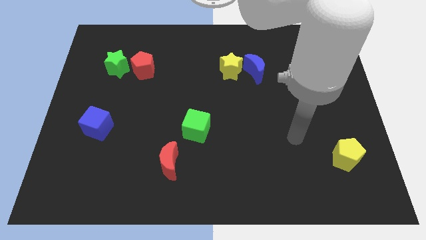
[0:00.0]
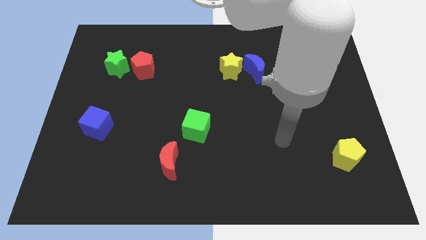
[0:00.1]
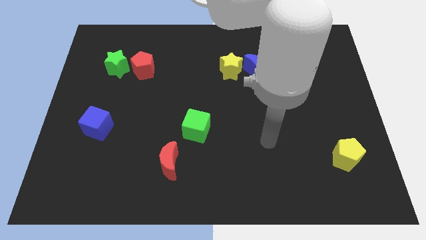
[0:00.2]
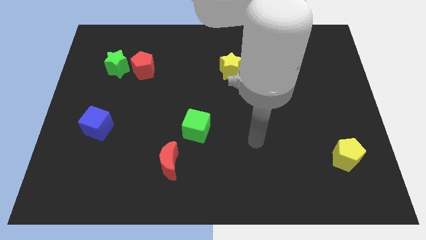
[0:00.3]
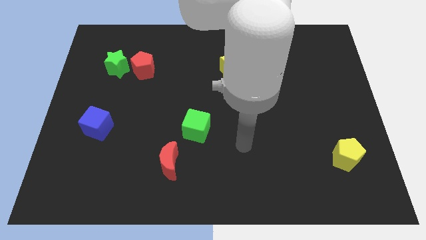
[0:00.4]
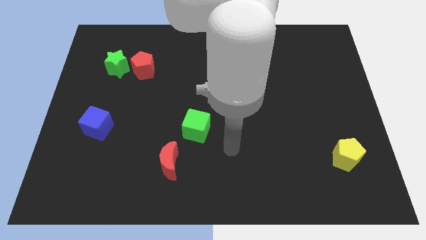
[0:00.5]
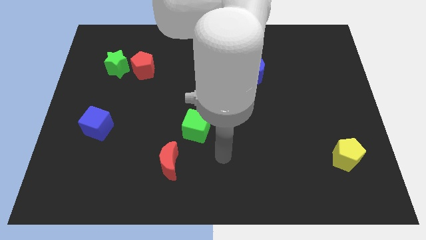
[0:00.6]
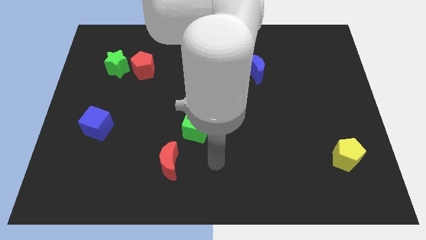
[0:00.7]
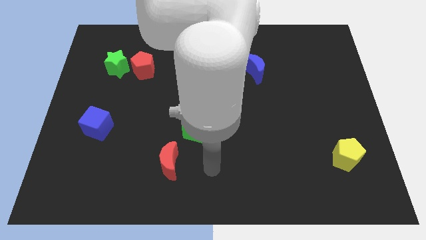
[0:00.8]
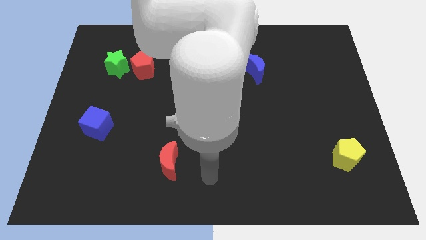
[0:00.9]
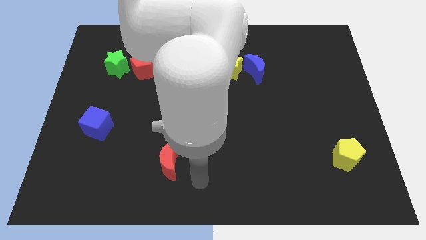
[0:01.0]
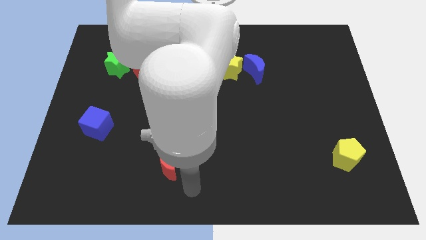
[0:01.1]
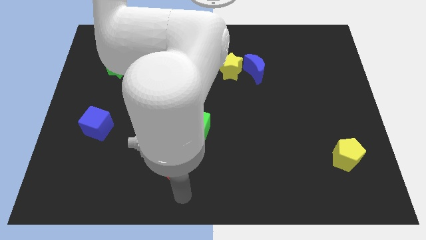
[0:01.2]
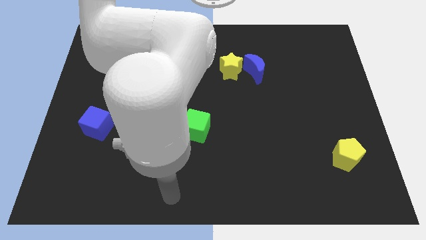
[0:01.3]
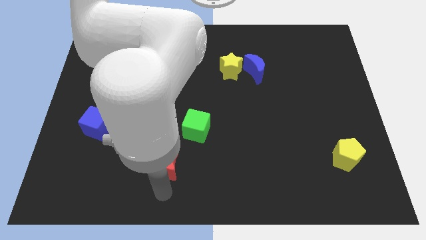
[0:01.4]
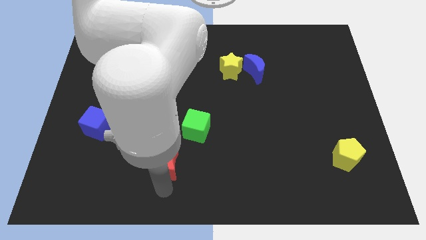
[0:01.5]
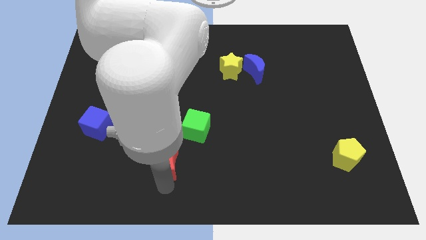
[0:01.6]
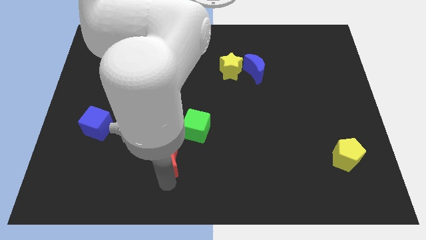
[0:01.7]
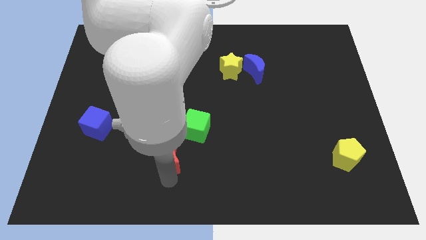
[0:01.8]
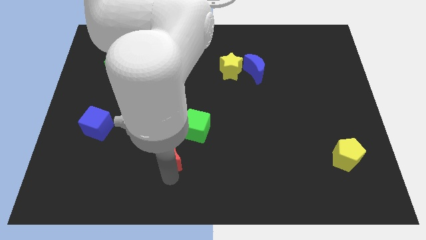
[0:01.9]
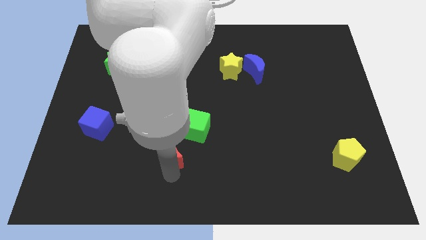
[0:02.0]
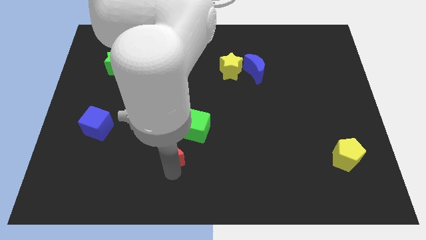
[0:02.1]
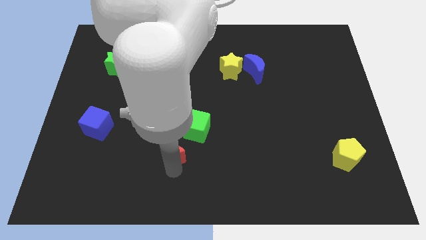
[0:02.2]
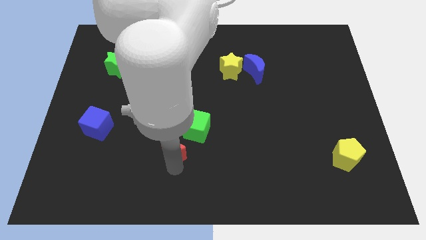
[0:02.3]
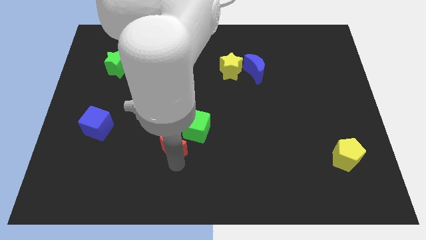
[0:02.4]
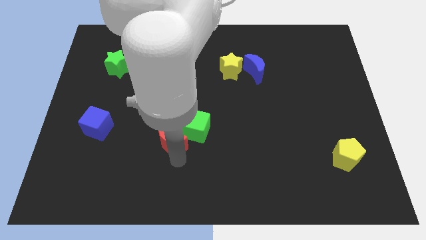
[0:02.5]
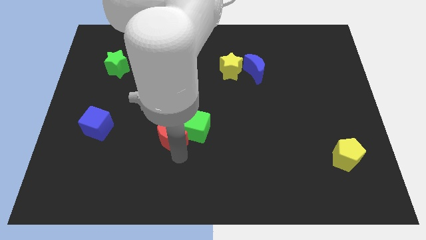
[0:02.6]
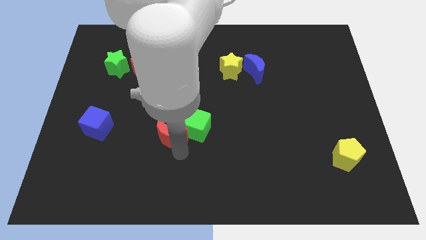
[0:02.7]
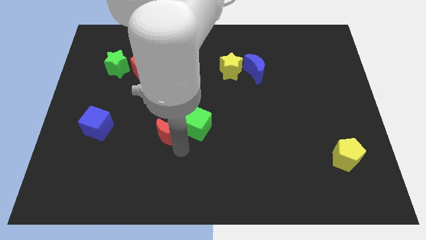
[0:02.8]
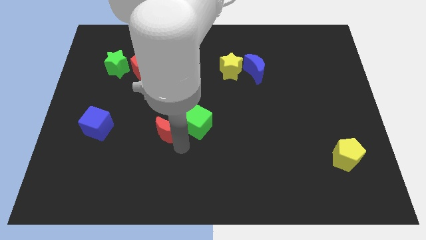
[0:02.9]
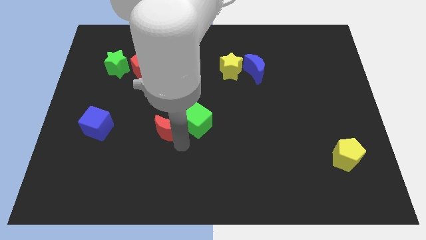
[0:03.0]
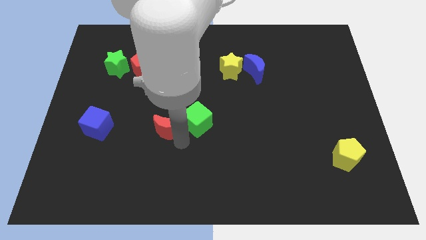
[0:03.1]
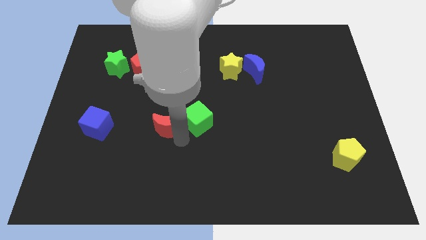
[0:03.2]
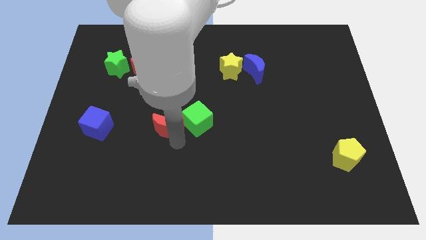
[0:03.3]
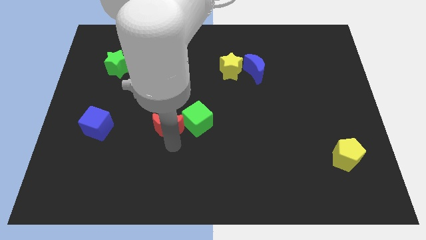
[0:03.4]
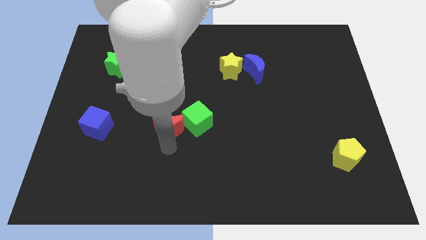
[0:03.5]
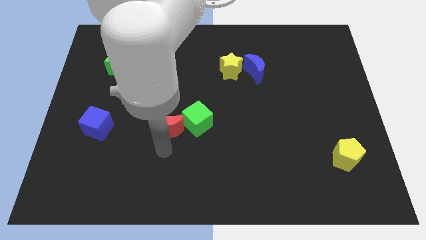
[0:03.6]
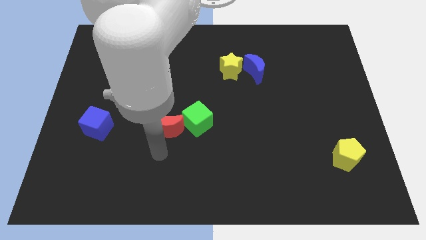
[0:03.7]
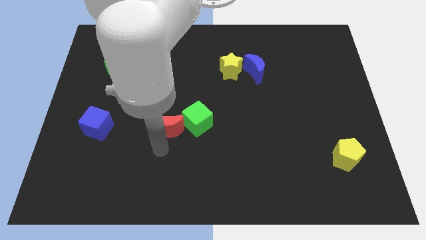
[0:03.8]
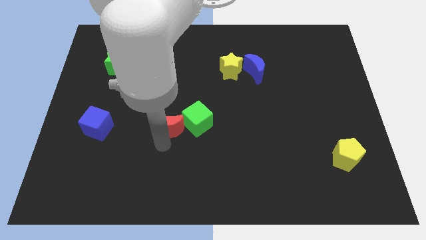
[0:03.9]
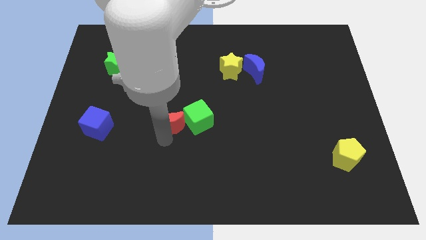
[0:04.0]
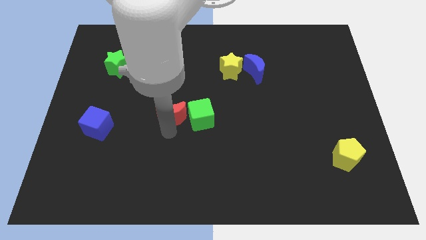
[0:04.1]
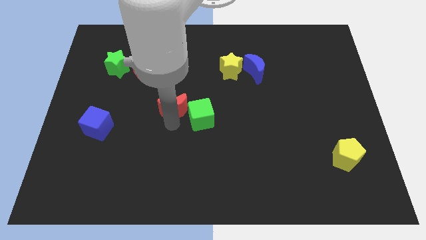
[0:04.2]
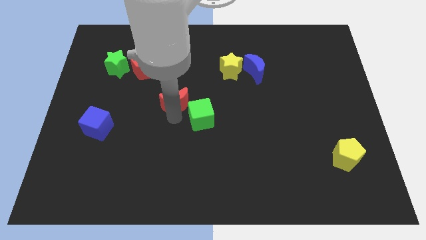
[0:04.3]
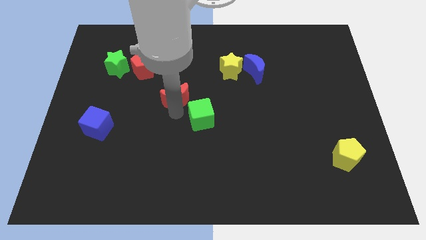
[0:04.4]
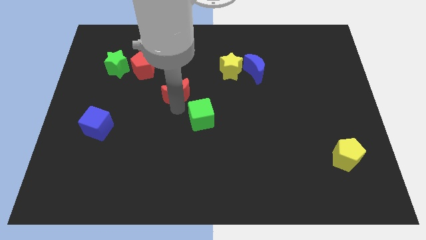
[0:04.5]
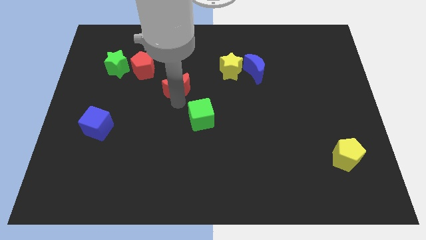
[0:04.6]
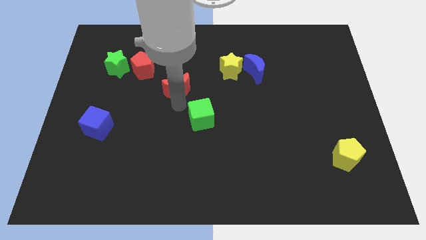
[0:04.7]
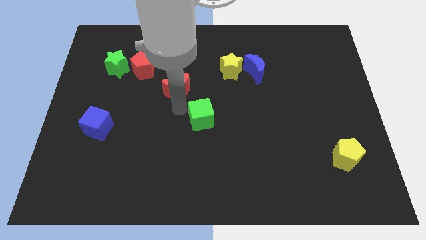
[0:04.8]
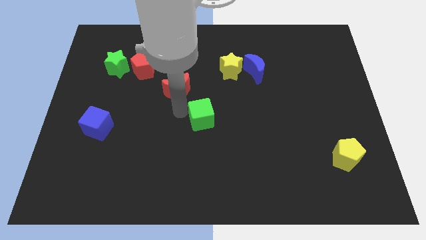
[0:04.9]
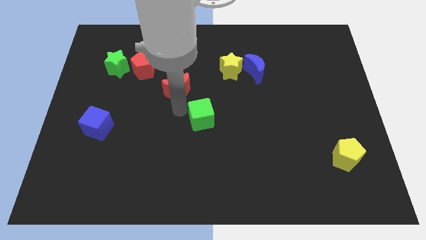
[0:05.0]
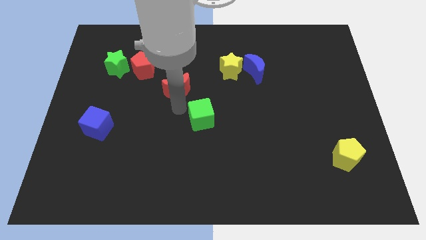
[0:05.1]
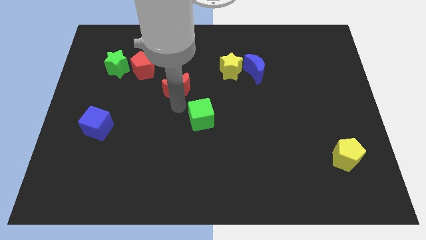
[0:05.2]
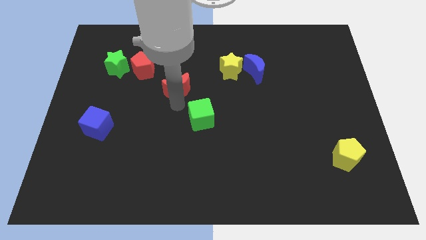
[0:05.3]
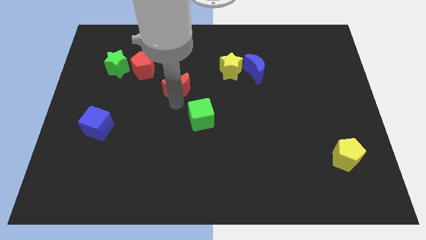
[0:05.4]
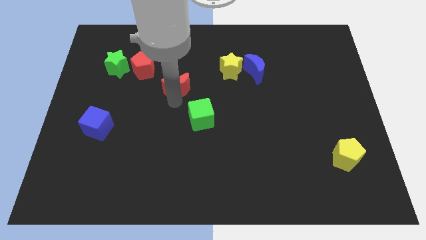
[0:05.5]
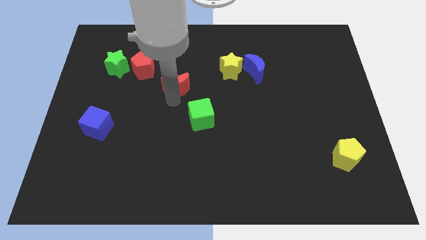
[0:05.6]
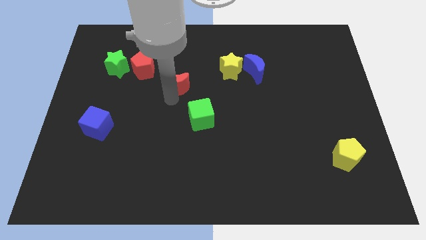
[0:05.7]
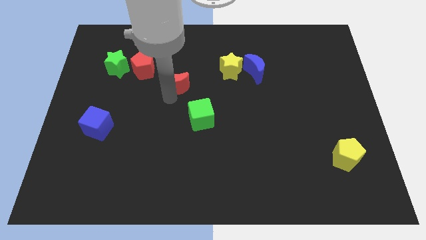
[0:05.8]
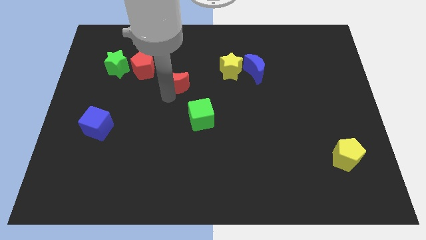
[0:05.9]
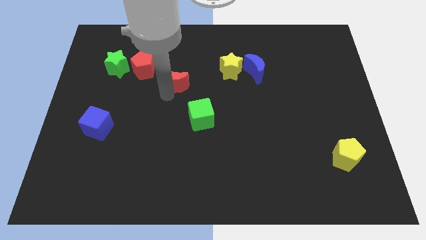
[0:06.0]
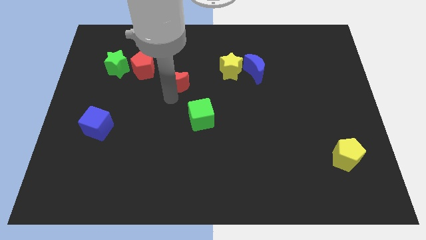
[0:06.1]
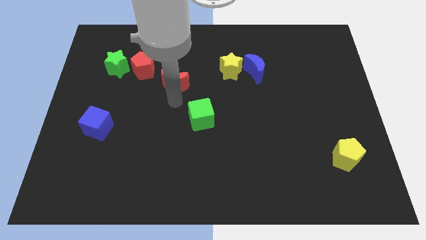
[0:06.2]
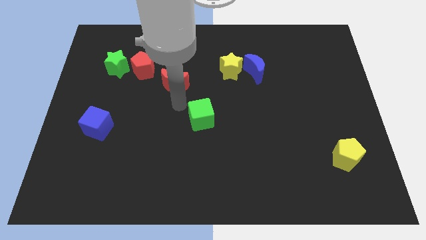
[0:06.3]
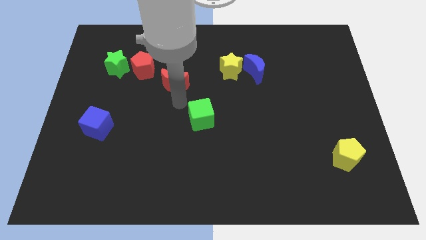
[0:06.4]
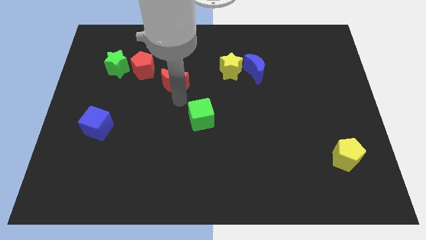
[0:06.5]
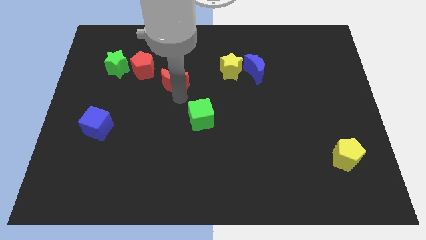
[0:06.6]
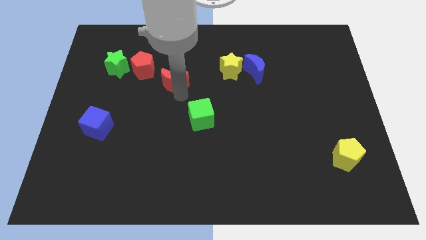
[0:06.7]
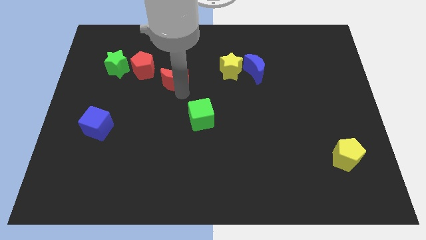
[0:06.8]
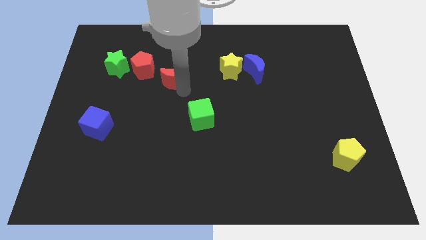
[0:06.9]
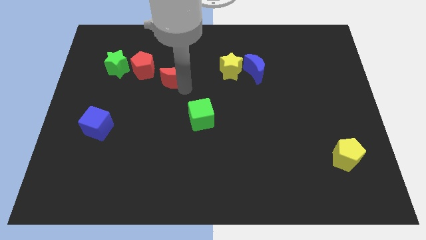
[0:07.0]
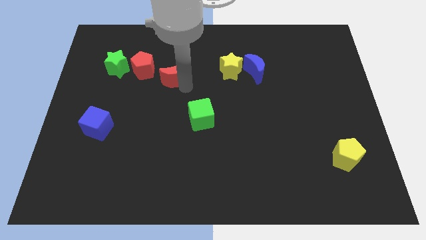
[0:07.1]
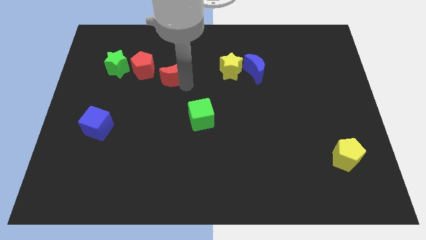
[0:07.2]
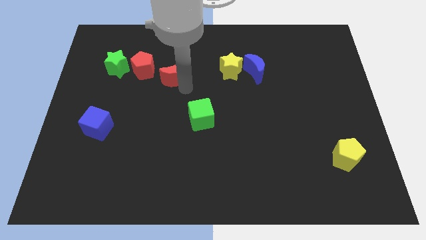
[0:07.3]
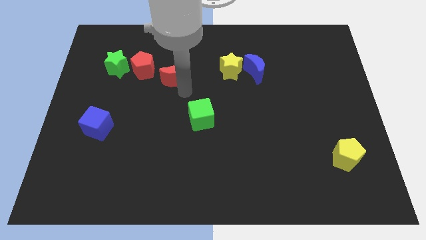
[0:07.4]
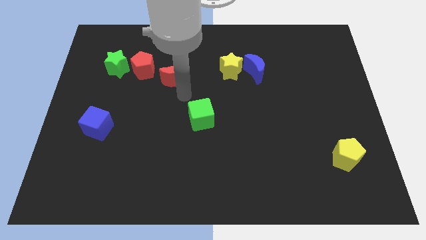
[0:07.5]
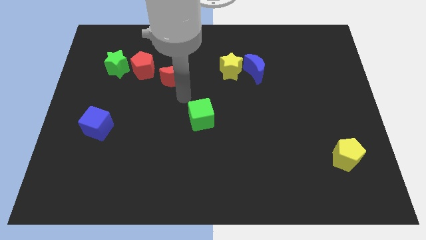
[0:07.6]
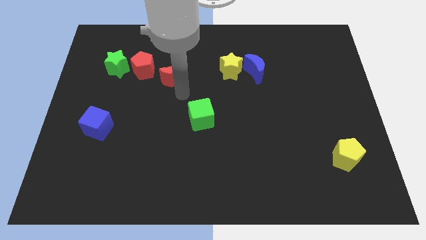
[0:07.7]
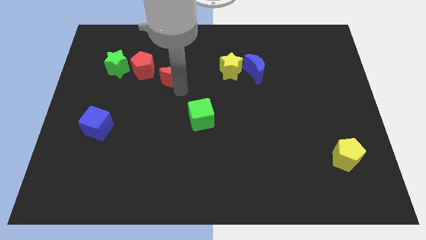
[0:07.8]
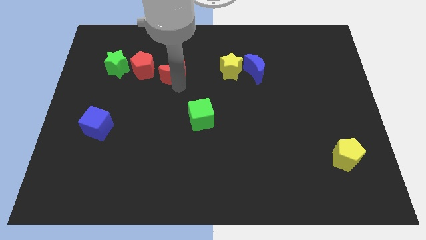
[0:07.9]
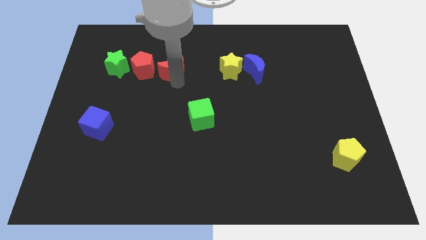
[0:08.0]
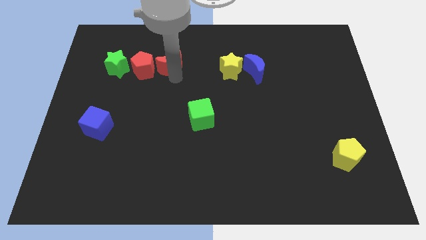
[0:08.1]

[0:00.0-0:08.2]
put the red moon to the top right side of the red pentagon
